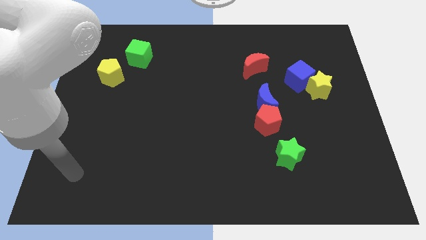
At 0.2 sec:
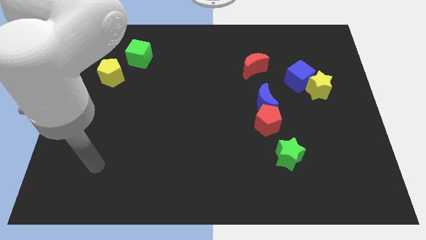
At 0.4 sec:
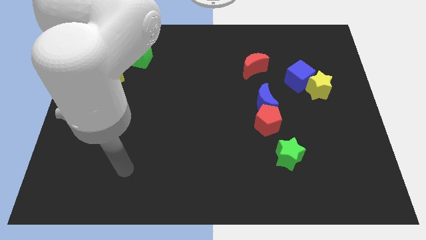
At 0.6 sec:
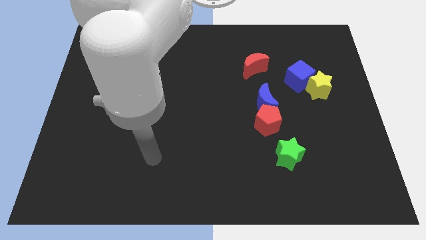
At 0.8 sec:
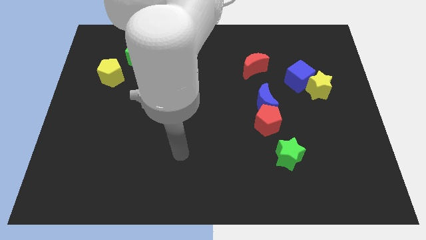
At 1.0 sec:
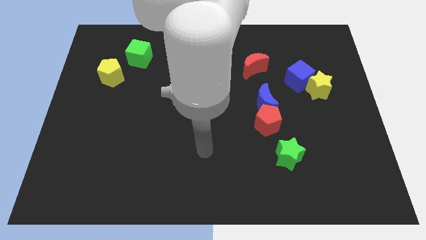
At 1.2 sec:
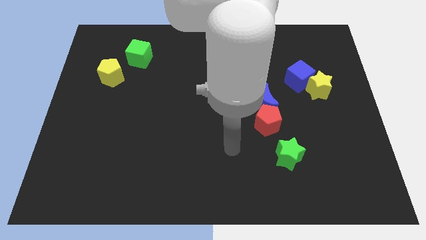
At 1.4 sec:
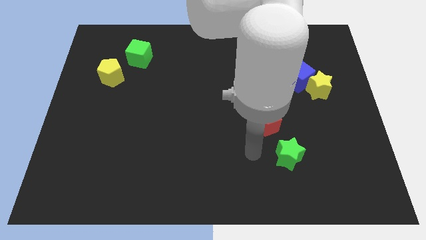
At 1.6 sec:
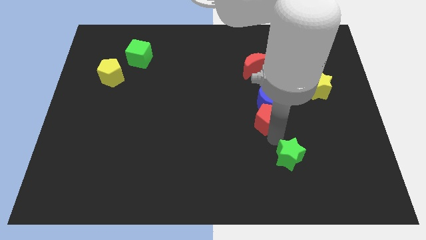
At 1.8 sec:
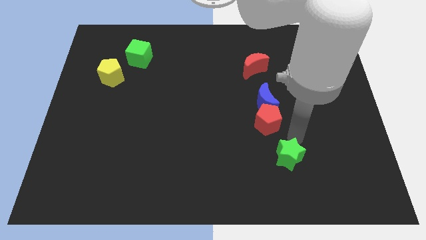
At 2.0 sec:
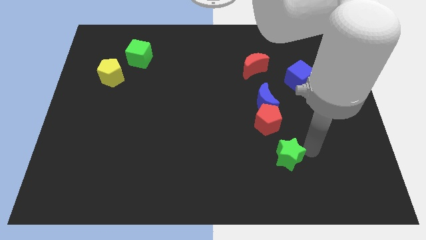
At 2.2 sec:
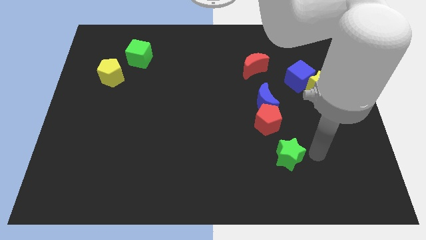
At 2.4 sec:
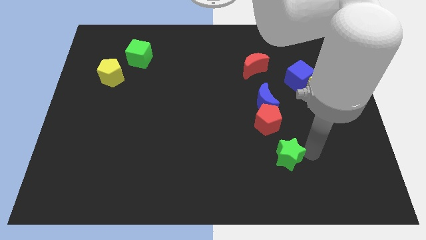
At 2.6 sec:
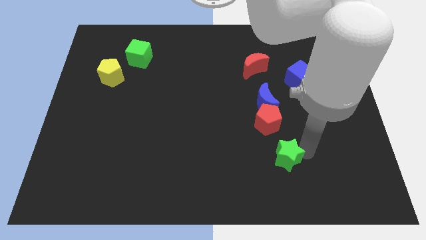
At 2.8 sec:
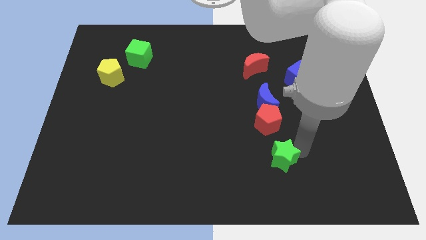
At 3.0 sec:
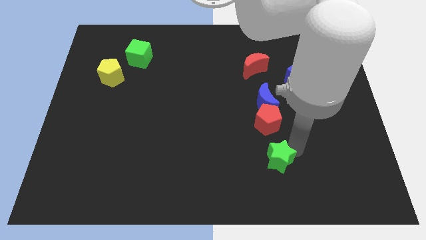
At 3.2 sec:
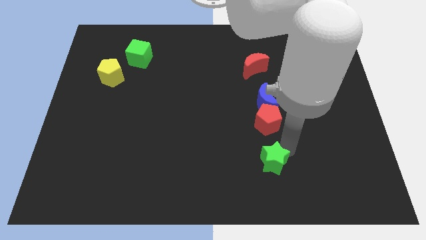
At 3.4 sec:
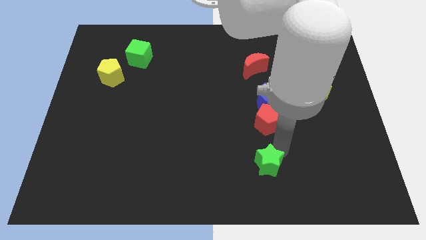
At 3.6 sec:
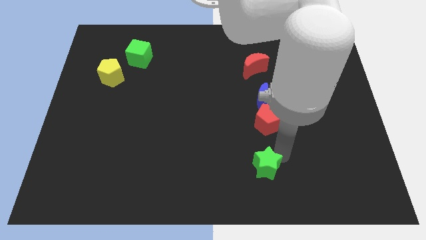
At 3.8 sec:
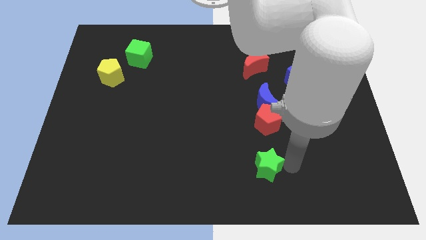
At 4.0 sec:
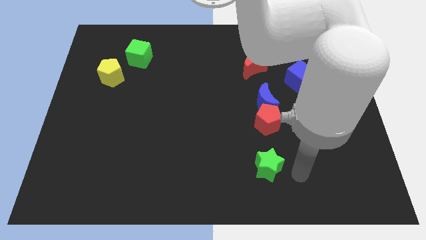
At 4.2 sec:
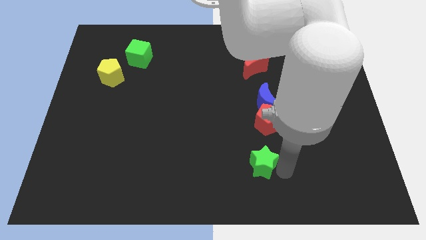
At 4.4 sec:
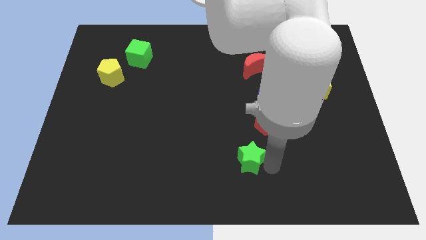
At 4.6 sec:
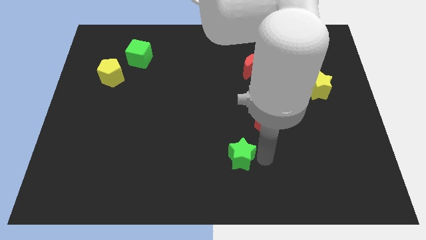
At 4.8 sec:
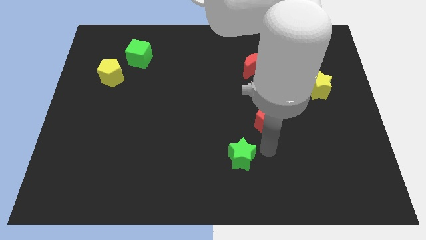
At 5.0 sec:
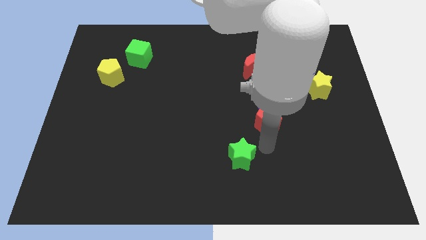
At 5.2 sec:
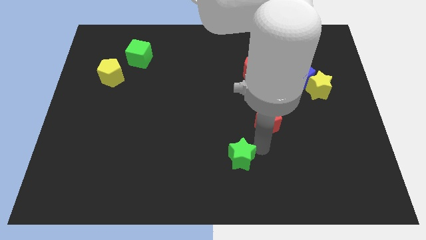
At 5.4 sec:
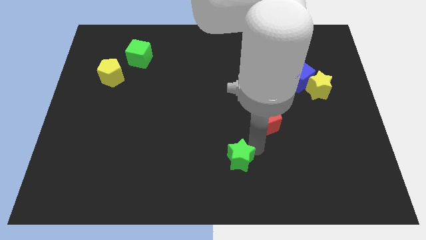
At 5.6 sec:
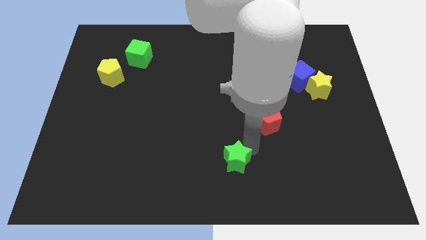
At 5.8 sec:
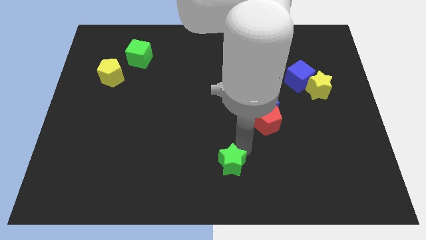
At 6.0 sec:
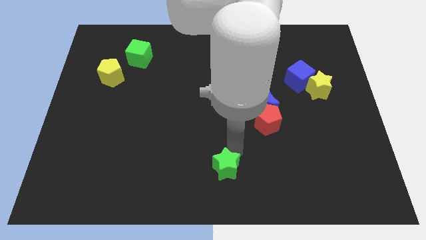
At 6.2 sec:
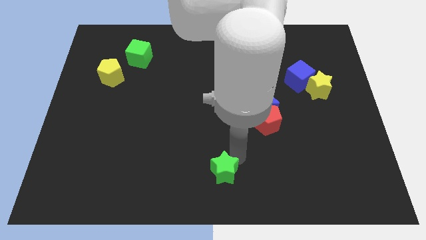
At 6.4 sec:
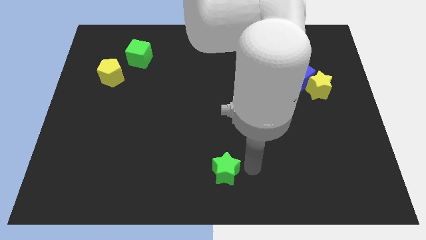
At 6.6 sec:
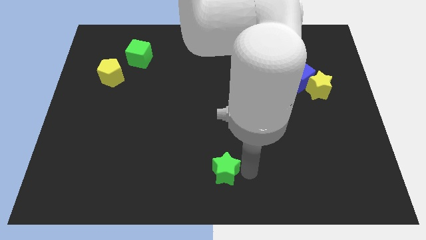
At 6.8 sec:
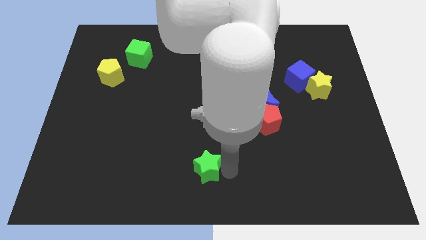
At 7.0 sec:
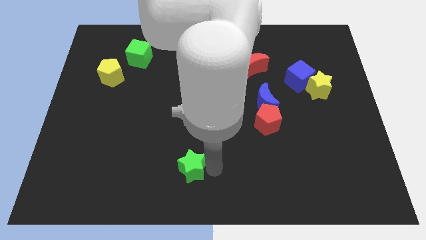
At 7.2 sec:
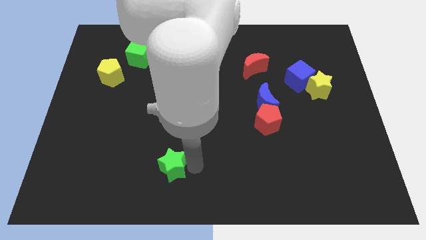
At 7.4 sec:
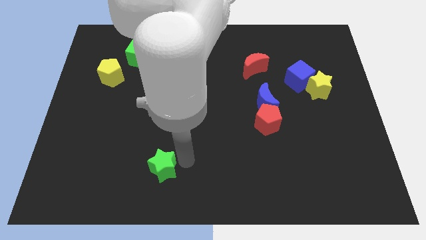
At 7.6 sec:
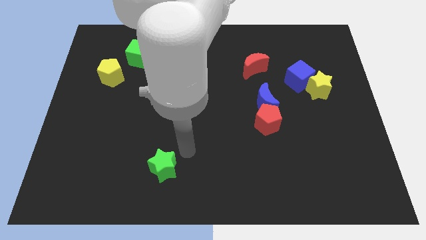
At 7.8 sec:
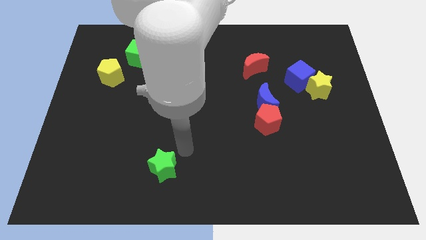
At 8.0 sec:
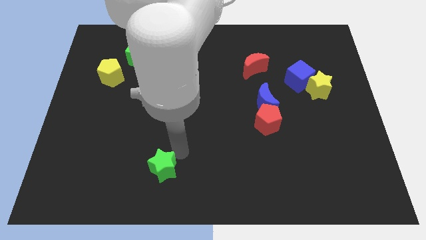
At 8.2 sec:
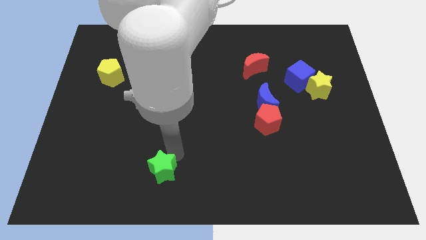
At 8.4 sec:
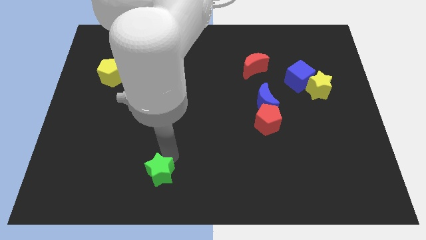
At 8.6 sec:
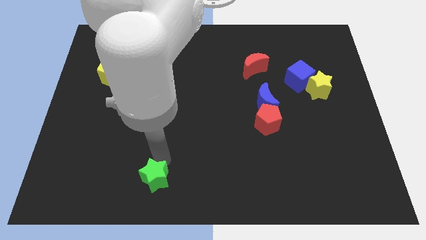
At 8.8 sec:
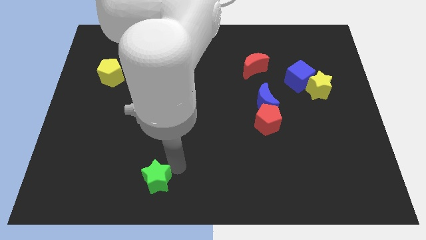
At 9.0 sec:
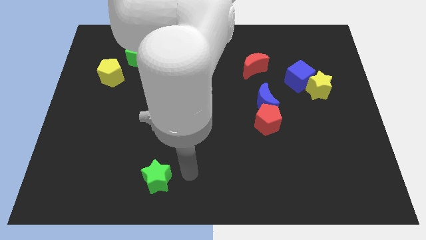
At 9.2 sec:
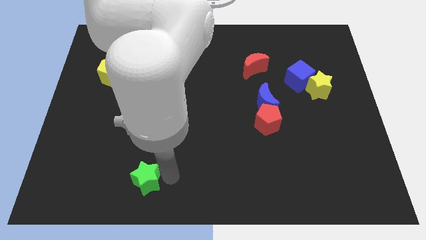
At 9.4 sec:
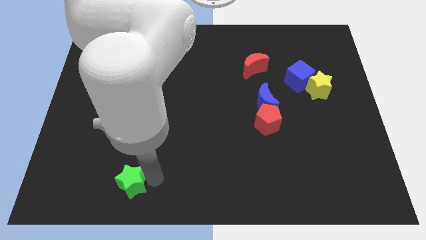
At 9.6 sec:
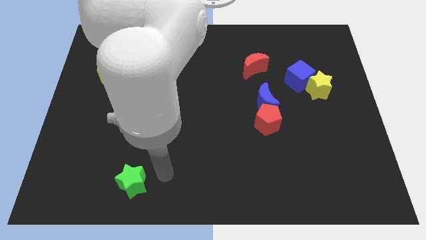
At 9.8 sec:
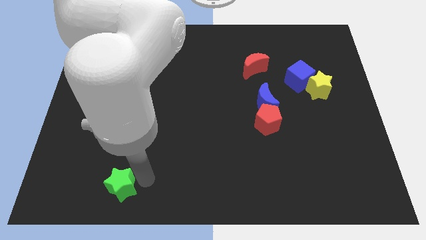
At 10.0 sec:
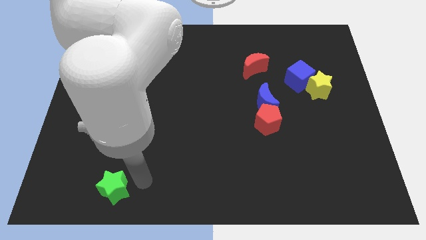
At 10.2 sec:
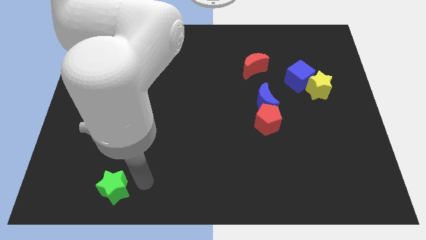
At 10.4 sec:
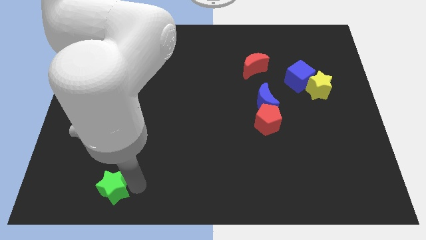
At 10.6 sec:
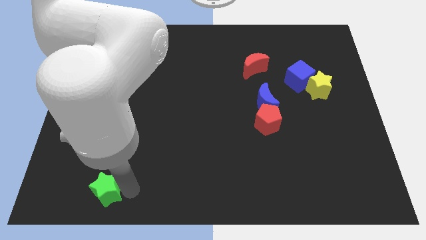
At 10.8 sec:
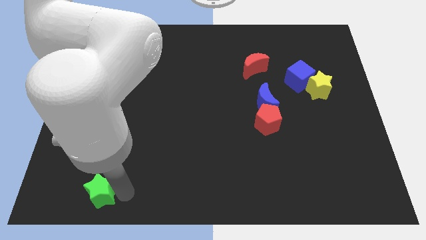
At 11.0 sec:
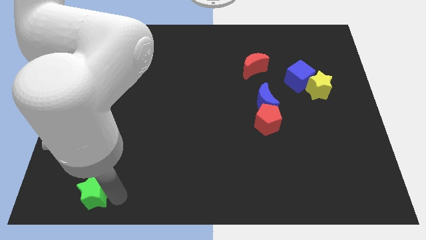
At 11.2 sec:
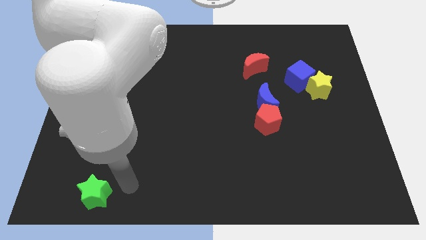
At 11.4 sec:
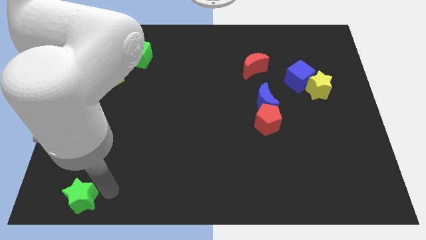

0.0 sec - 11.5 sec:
put the green star to the bottom left

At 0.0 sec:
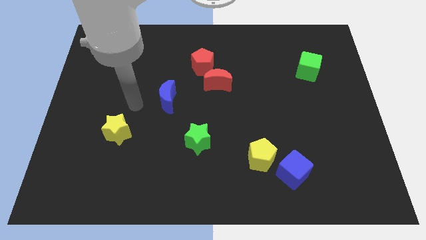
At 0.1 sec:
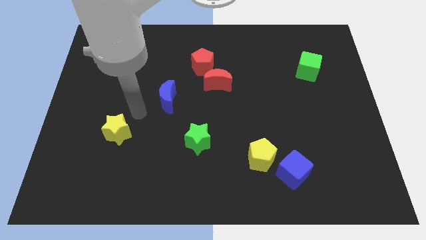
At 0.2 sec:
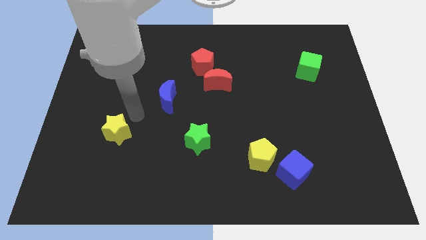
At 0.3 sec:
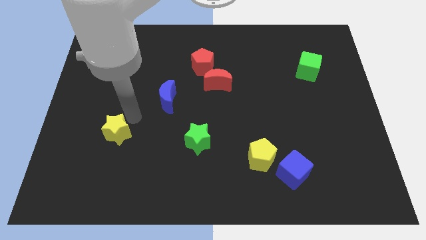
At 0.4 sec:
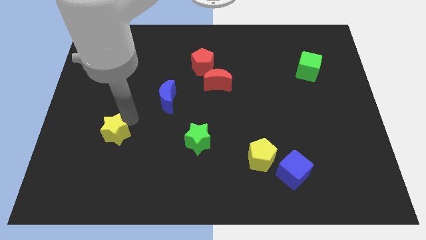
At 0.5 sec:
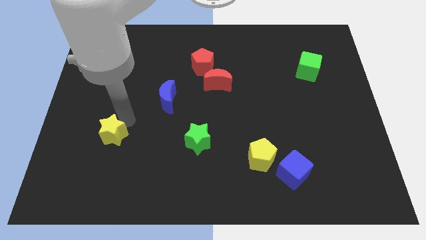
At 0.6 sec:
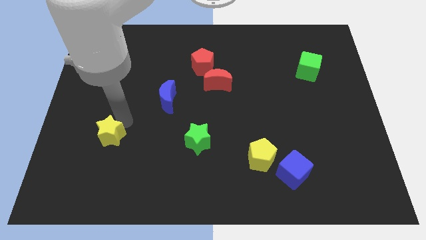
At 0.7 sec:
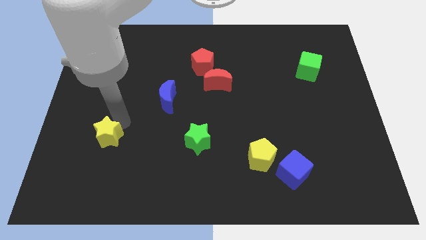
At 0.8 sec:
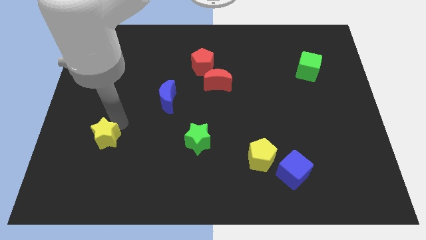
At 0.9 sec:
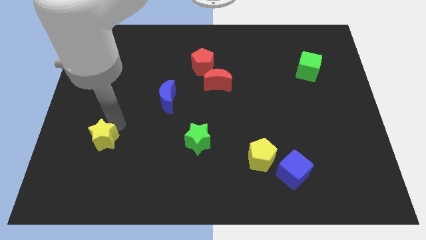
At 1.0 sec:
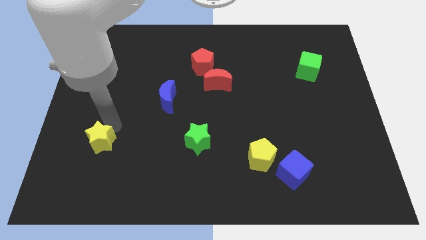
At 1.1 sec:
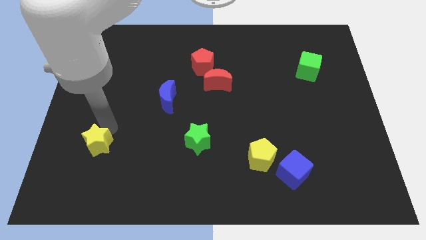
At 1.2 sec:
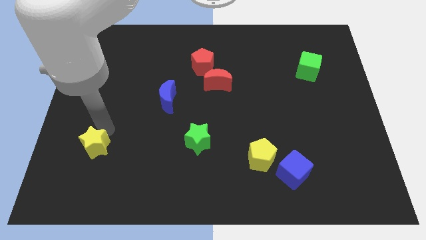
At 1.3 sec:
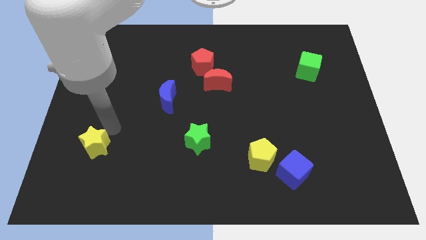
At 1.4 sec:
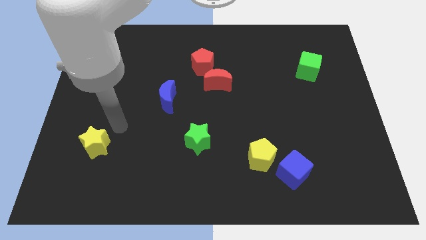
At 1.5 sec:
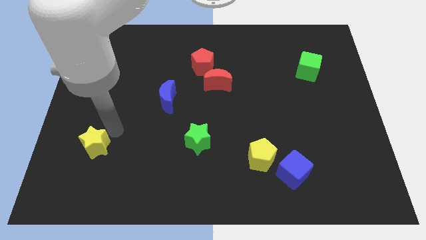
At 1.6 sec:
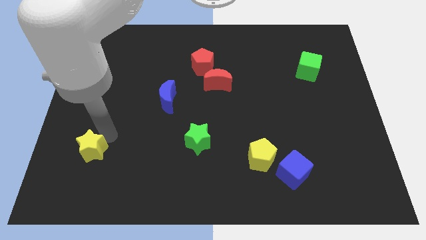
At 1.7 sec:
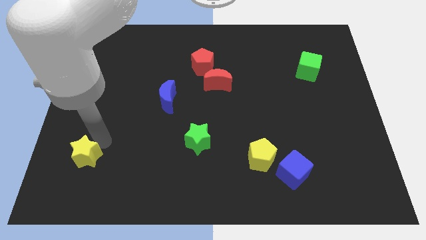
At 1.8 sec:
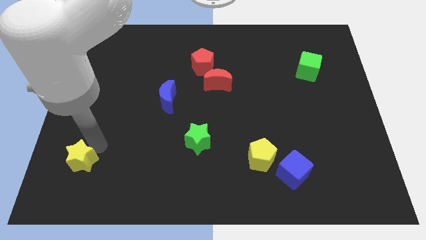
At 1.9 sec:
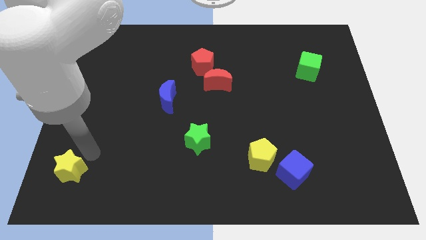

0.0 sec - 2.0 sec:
push the yellow star to the lower left corner
